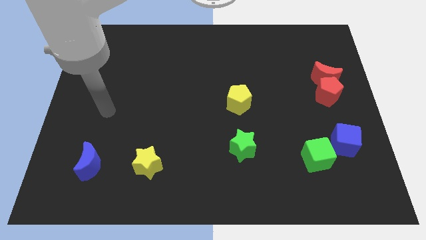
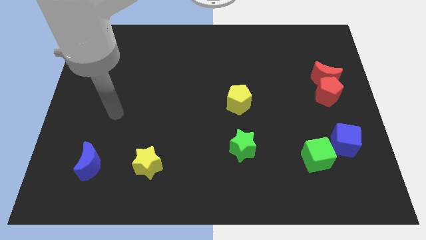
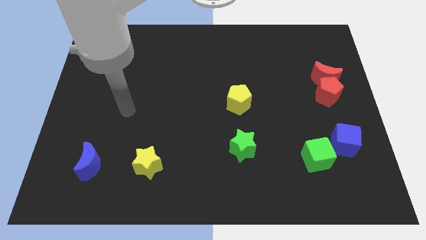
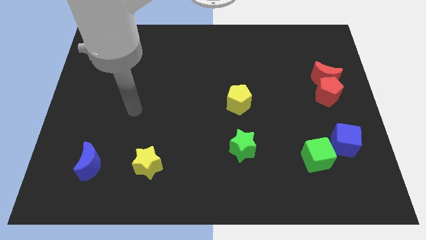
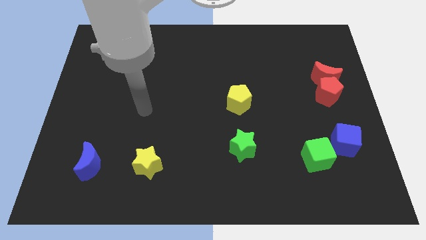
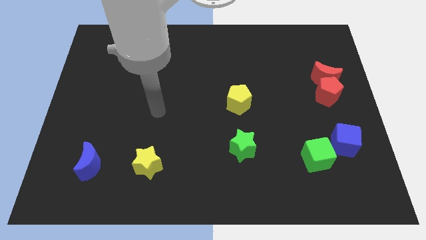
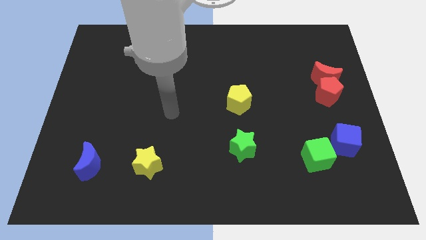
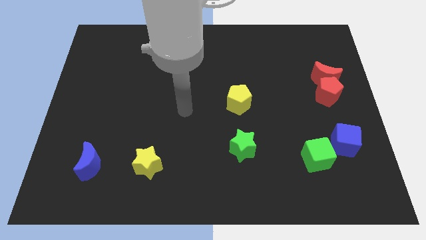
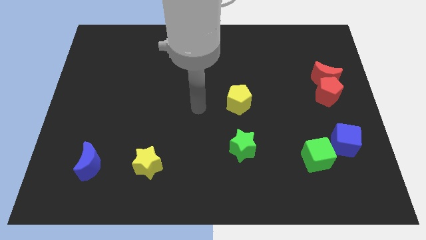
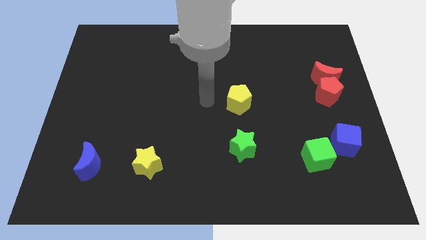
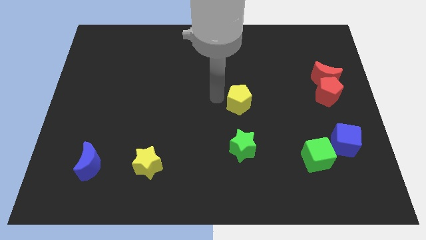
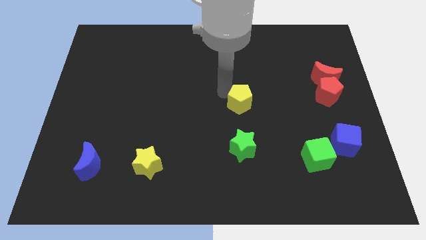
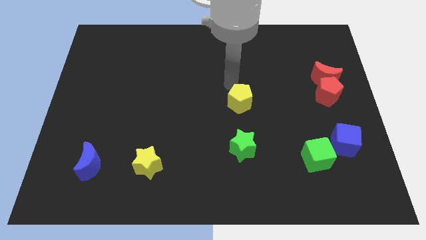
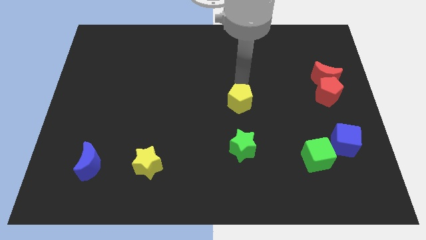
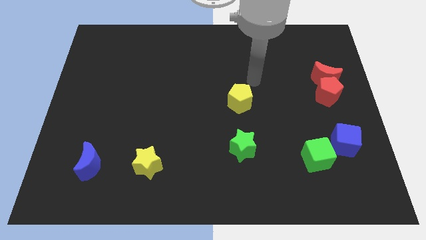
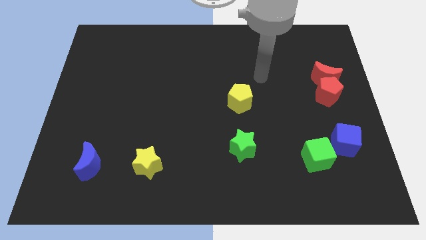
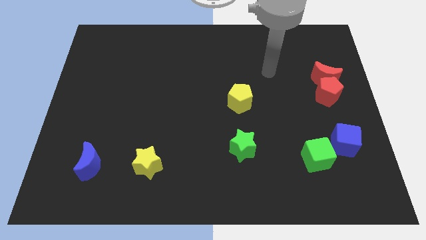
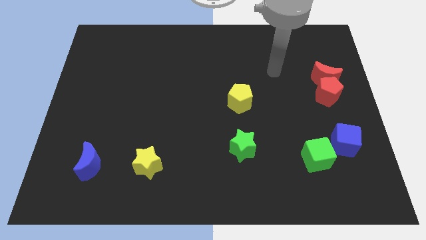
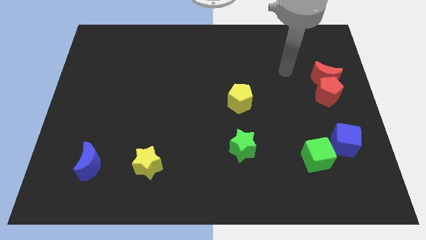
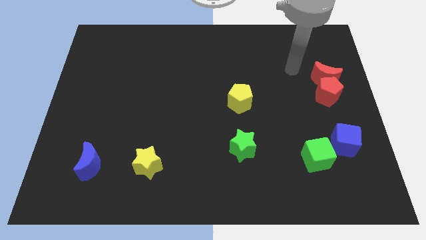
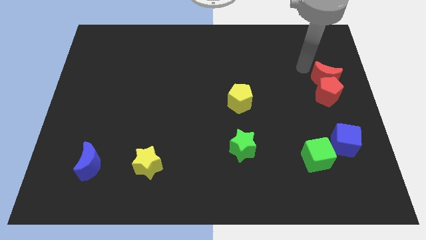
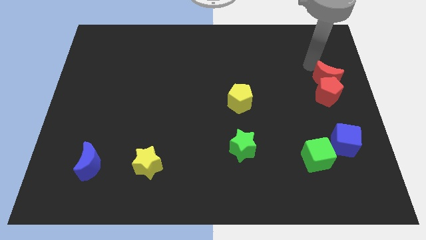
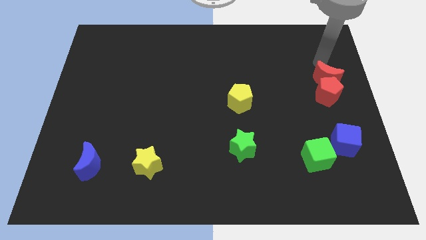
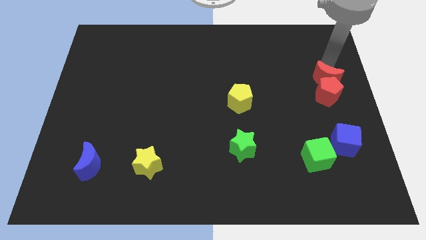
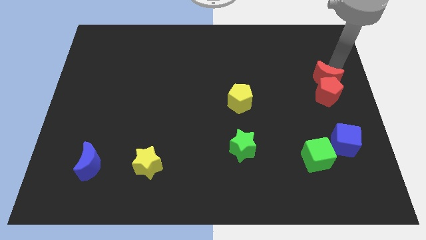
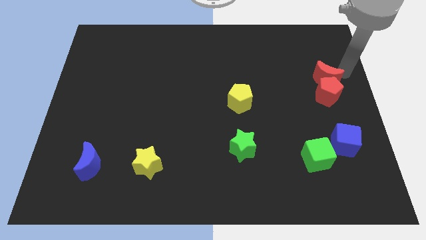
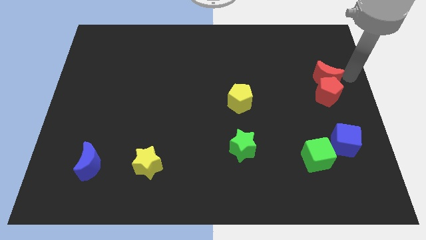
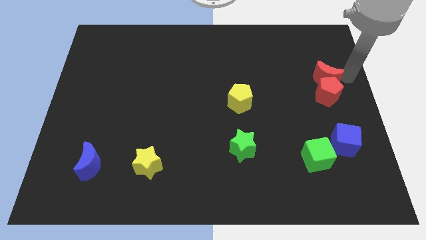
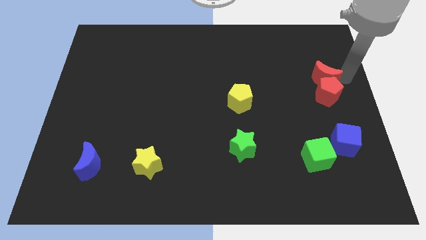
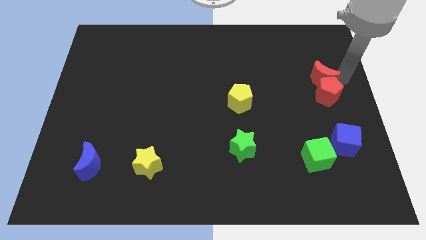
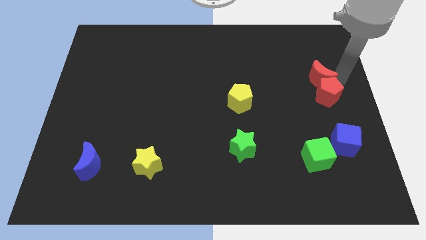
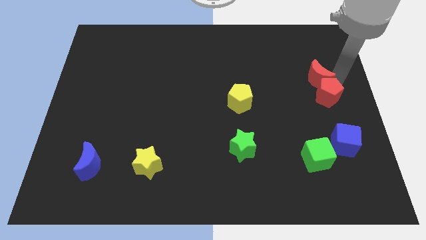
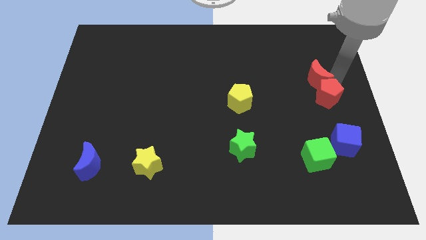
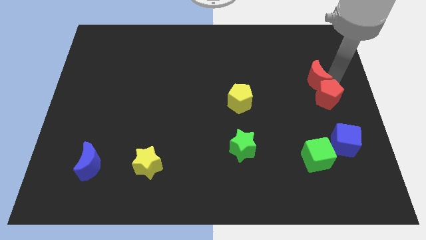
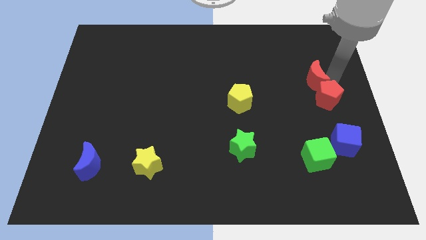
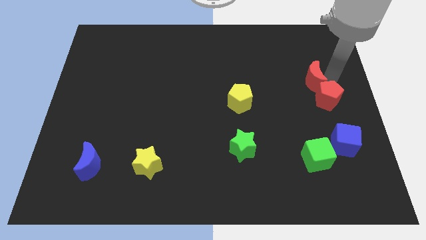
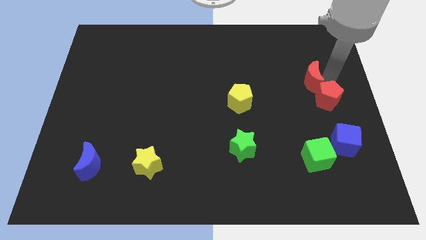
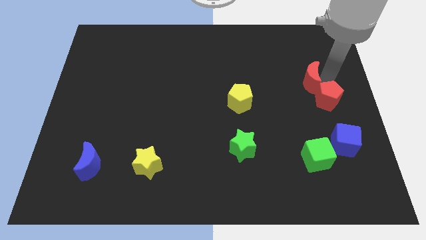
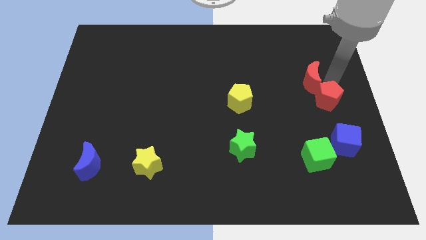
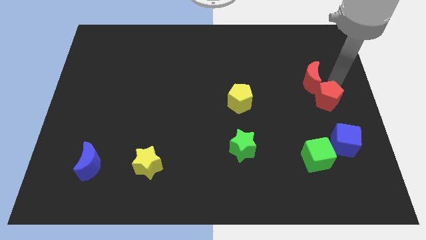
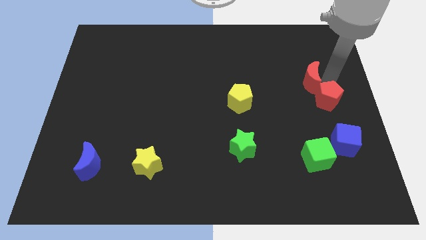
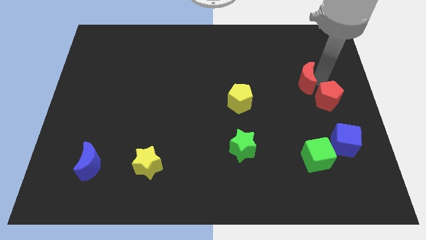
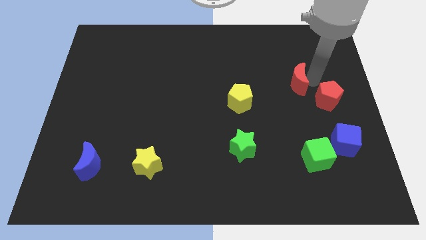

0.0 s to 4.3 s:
slide the red moon to the left a bit

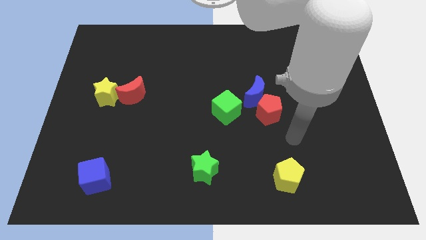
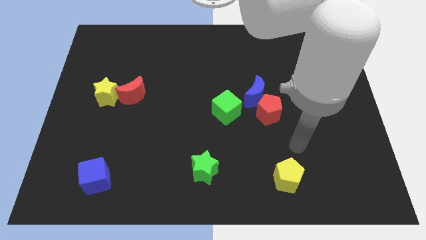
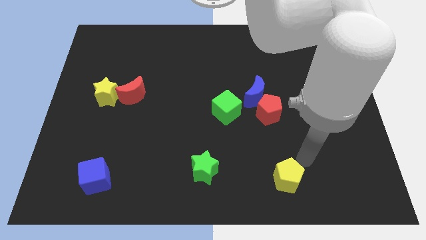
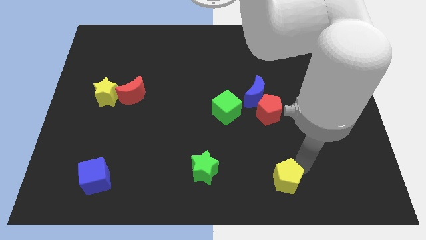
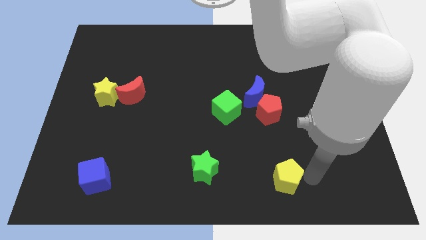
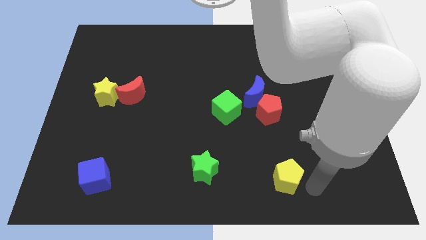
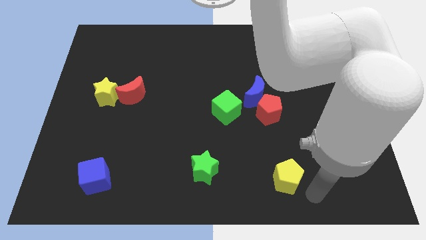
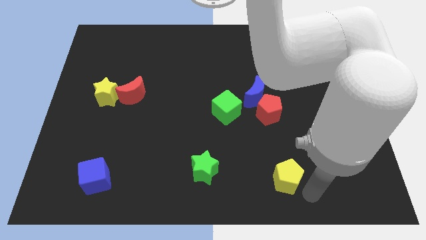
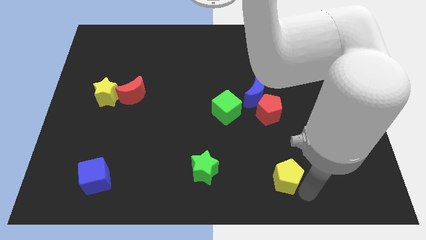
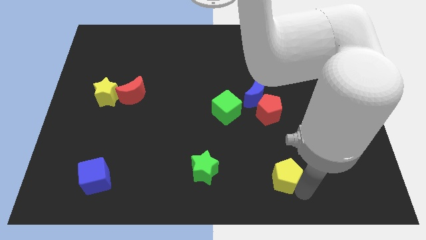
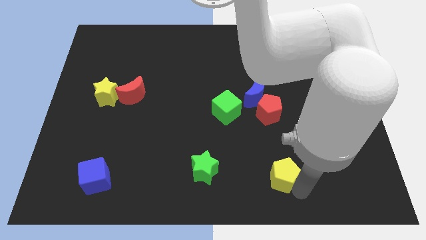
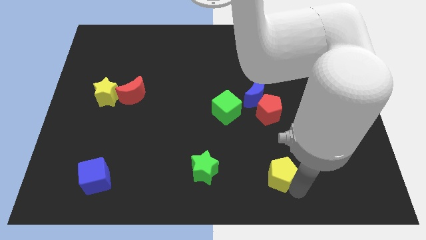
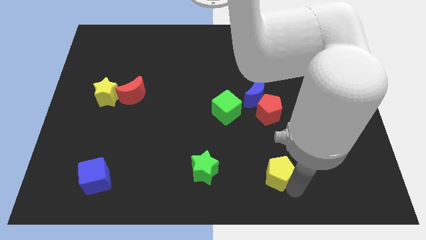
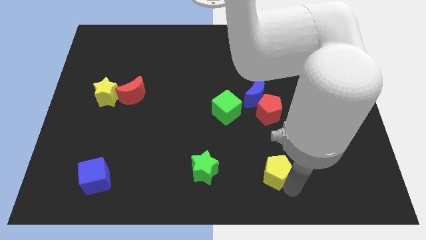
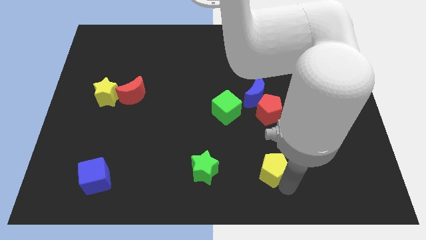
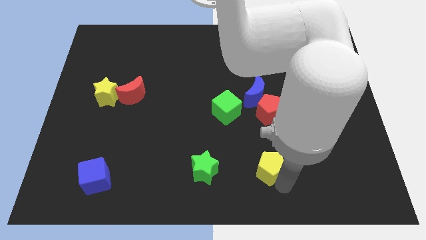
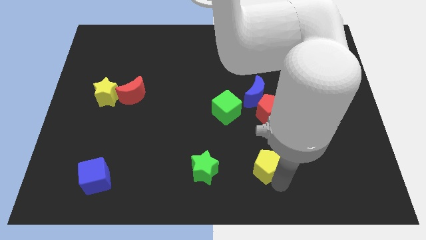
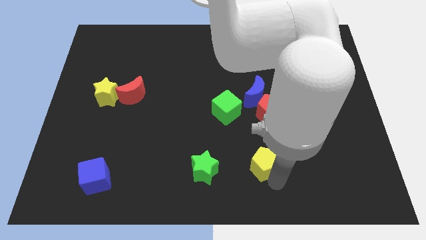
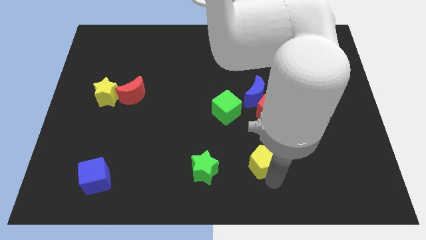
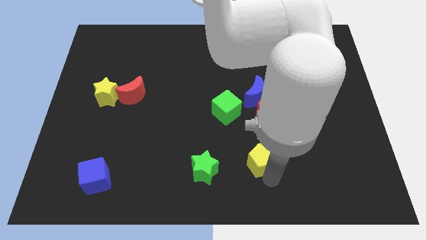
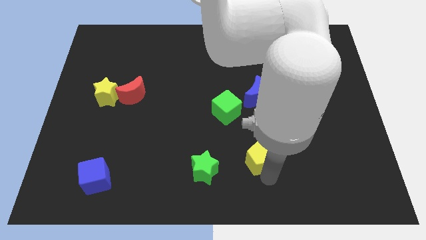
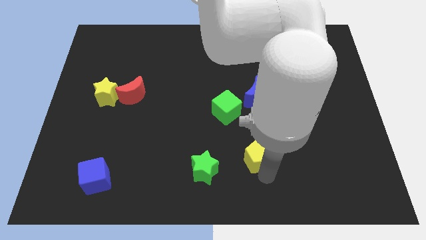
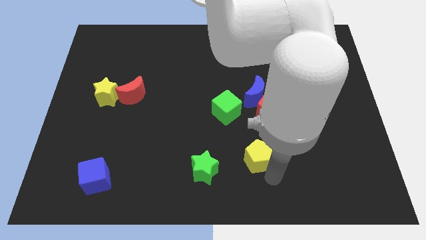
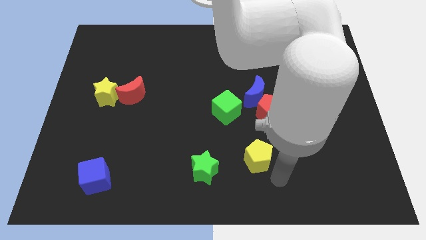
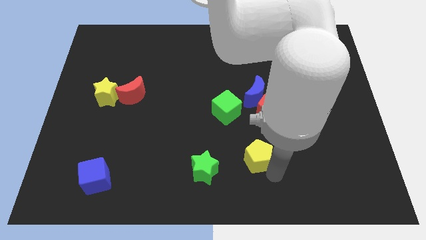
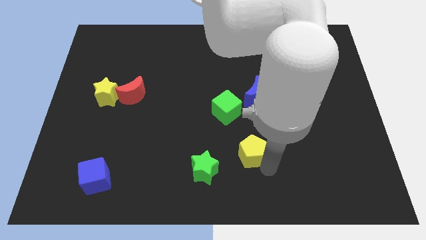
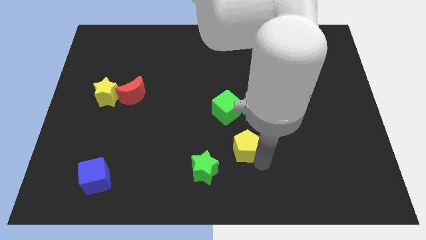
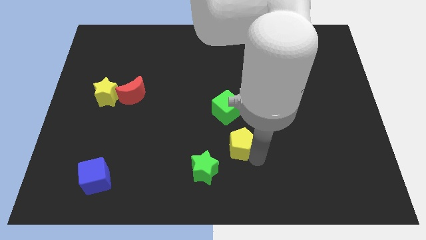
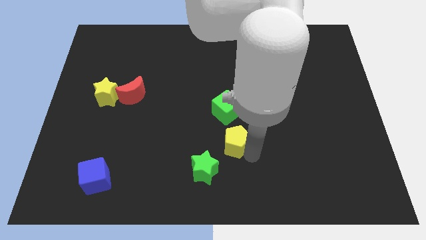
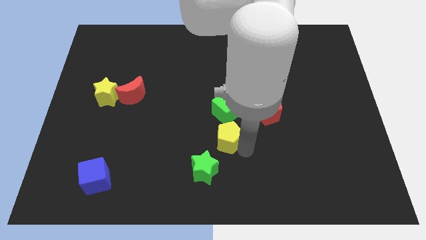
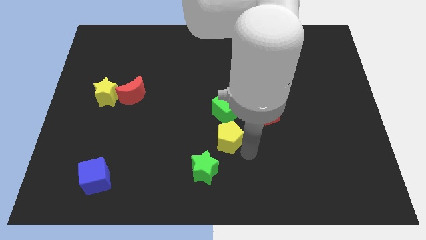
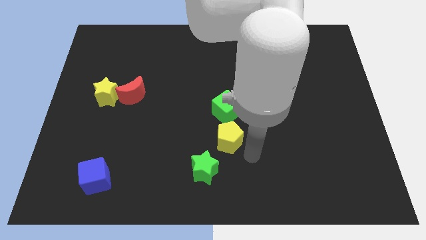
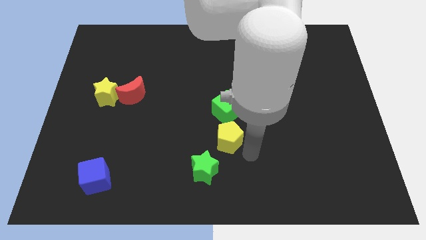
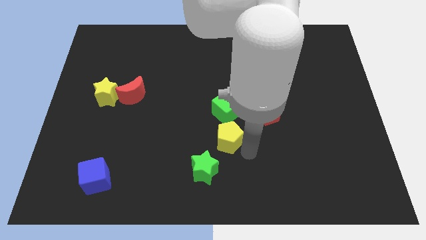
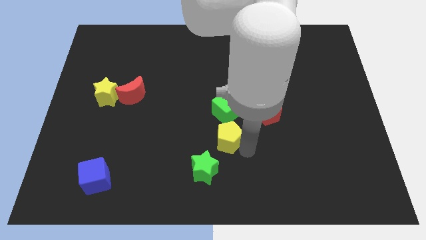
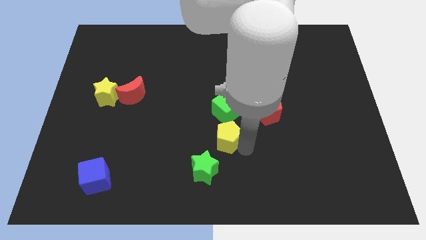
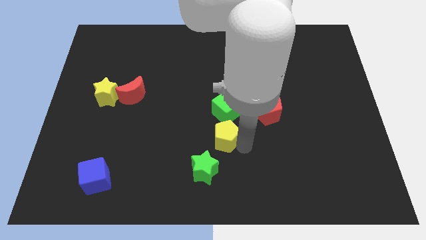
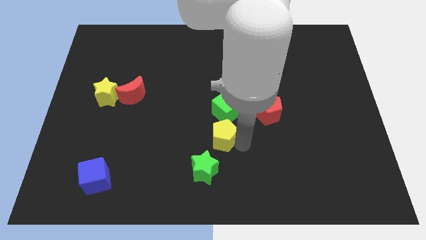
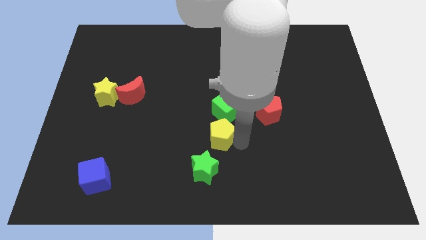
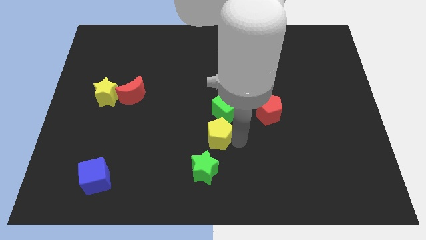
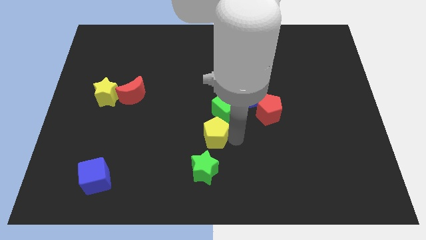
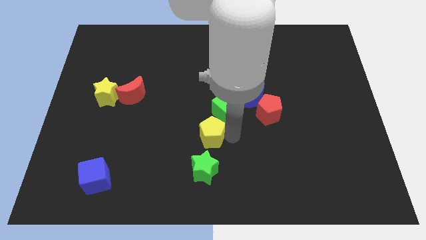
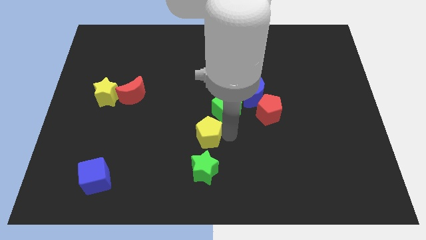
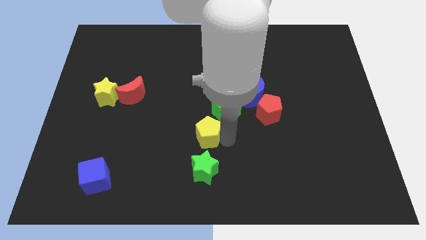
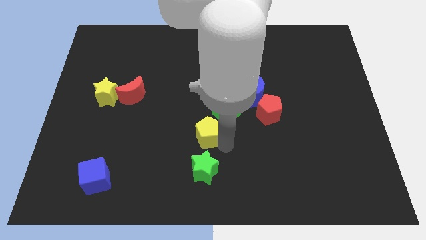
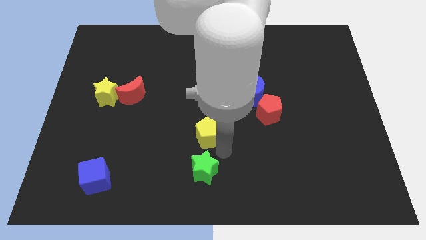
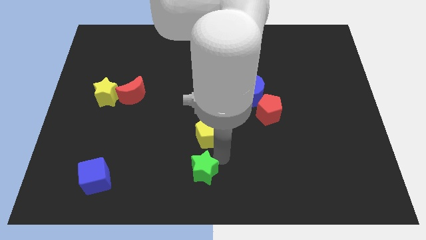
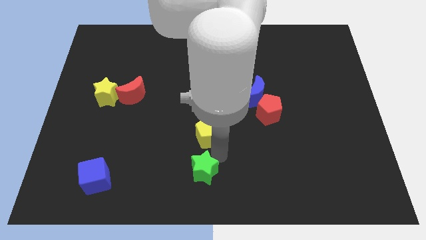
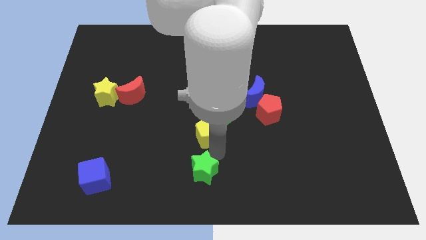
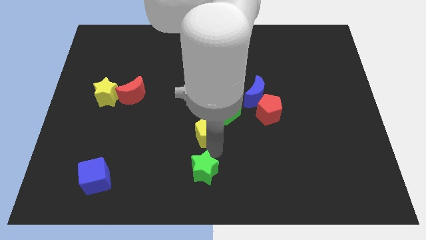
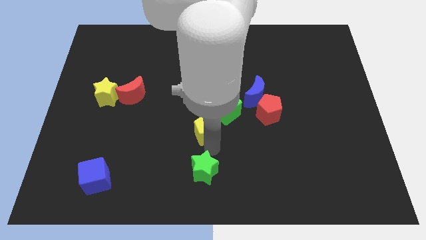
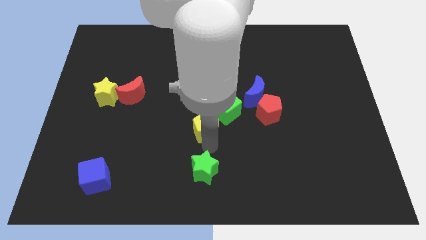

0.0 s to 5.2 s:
slide the yellow pentagon upwards and then left
